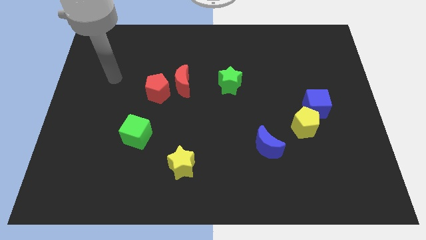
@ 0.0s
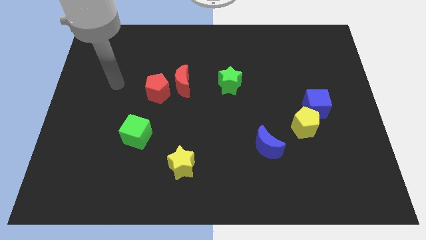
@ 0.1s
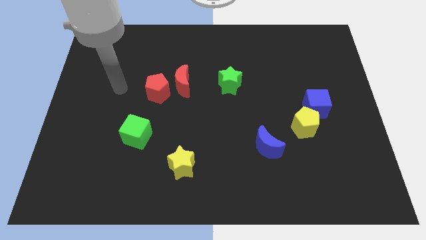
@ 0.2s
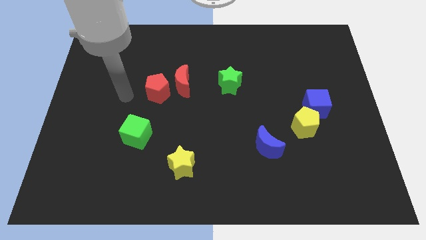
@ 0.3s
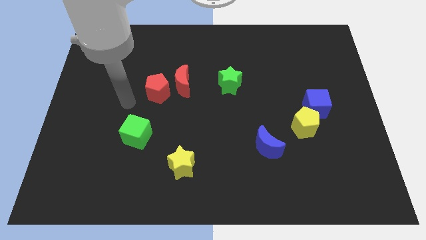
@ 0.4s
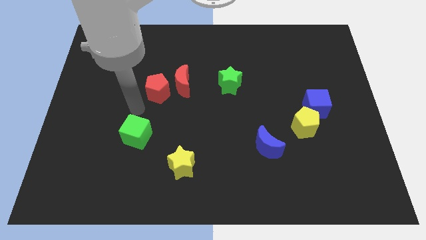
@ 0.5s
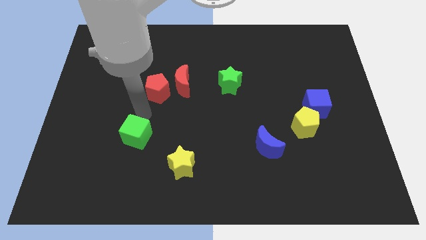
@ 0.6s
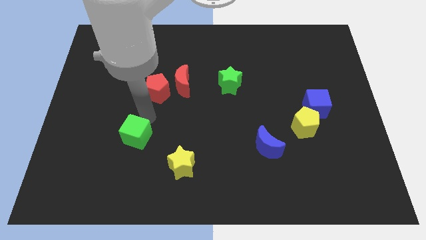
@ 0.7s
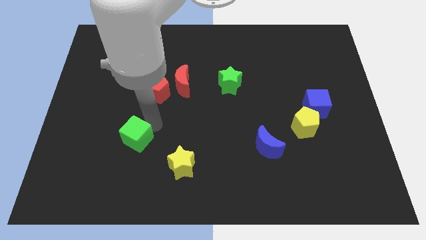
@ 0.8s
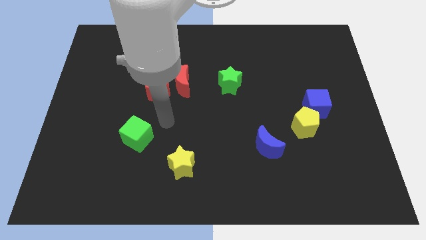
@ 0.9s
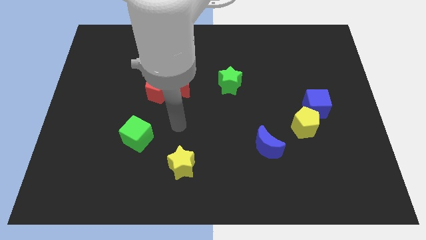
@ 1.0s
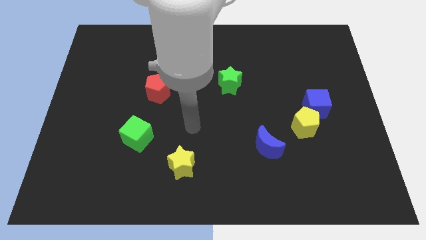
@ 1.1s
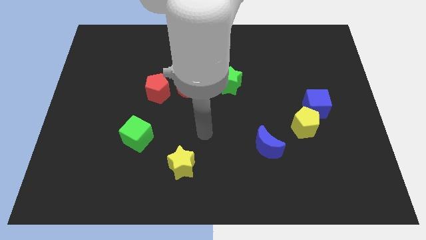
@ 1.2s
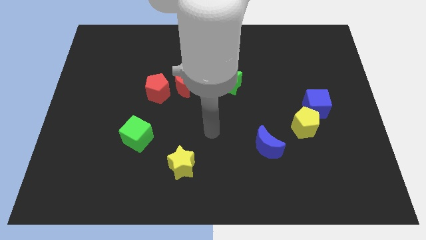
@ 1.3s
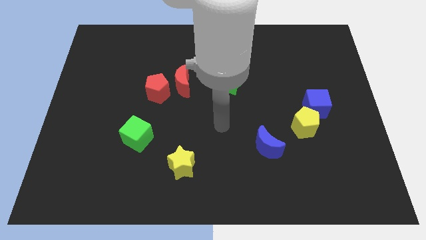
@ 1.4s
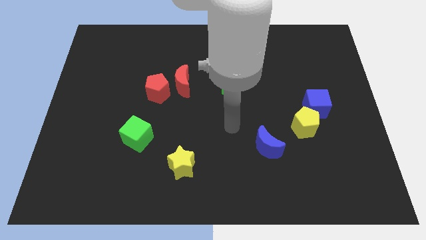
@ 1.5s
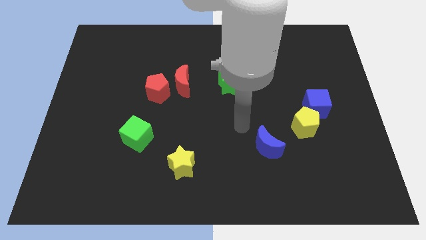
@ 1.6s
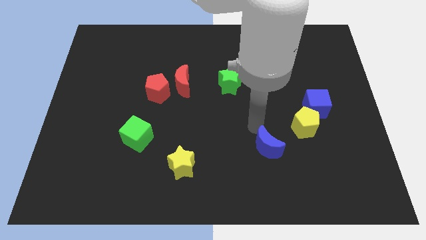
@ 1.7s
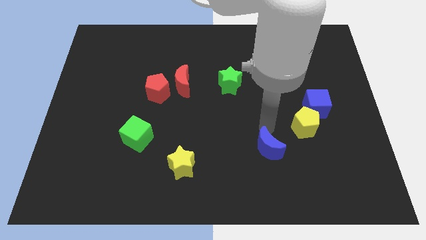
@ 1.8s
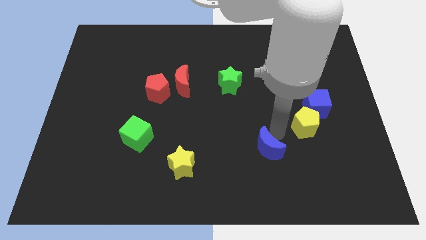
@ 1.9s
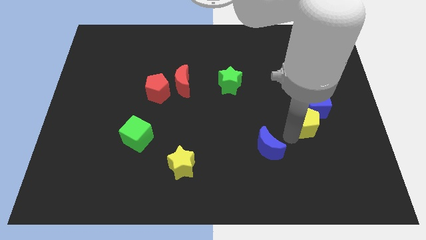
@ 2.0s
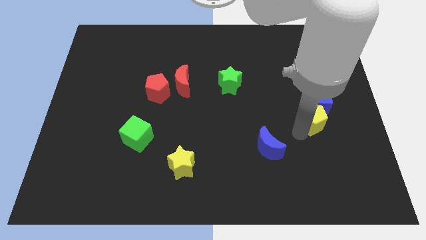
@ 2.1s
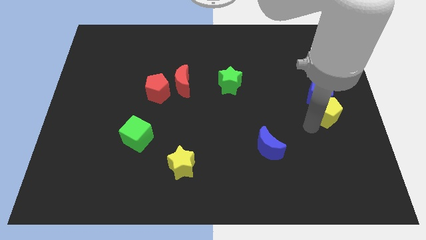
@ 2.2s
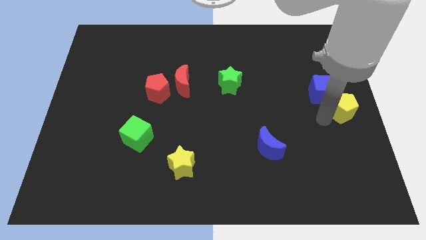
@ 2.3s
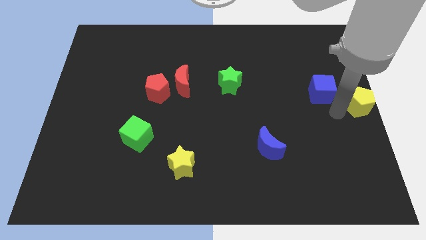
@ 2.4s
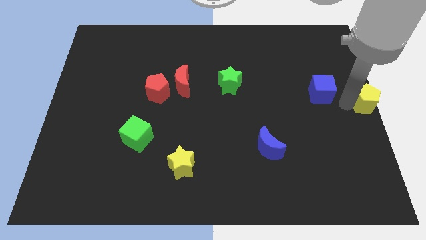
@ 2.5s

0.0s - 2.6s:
pull the blue cube apart from the yellow pentagon

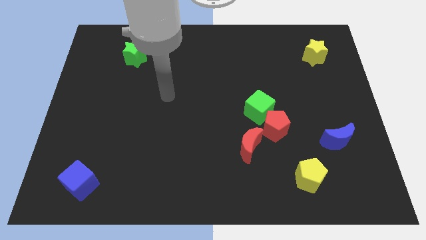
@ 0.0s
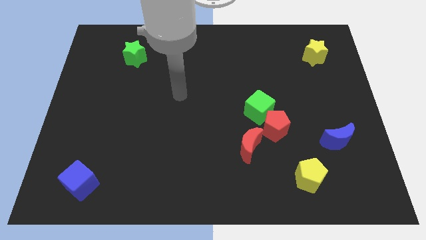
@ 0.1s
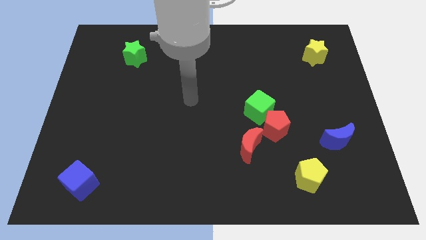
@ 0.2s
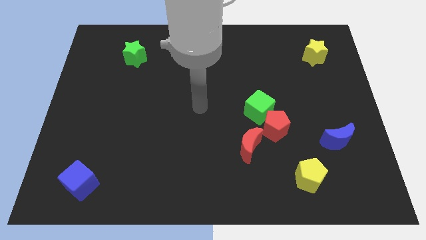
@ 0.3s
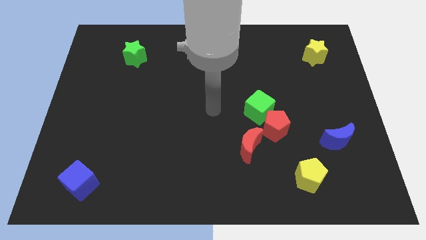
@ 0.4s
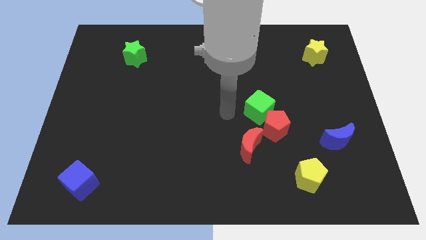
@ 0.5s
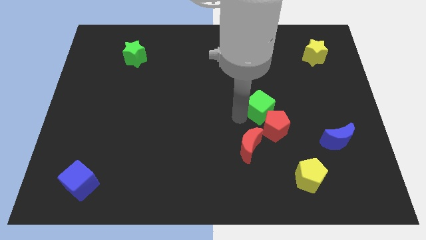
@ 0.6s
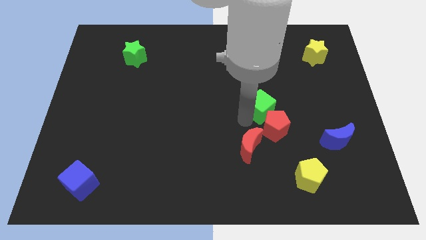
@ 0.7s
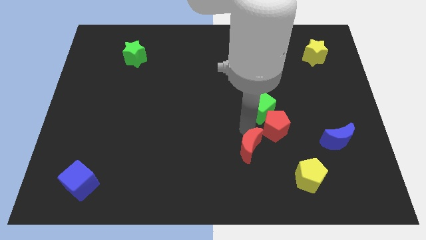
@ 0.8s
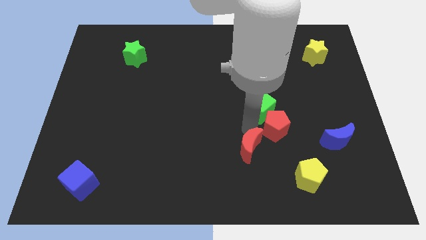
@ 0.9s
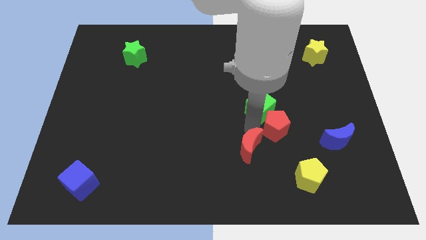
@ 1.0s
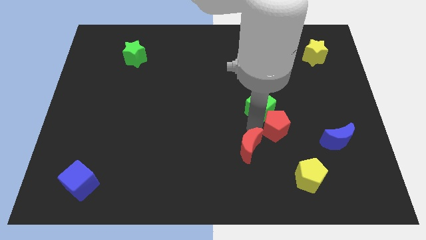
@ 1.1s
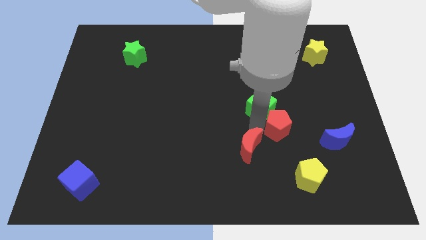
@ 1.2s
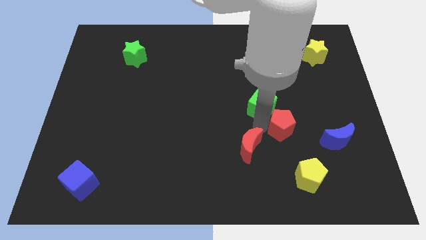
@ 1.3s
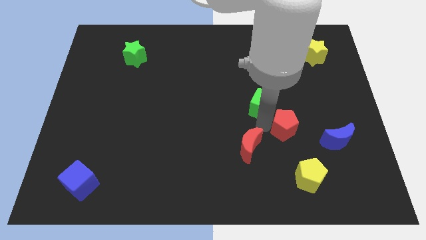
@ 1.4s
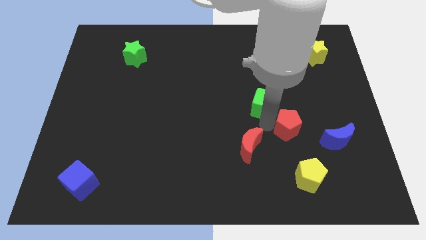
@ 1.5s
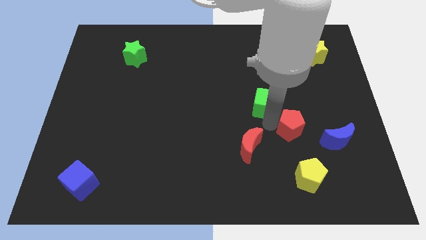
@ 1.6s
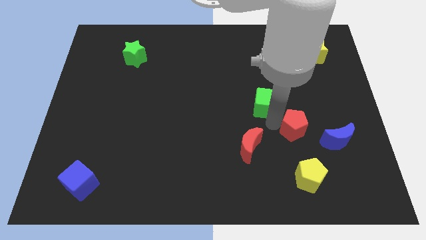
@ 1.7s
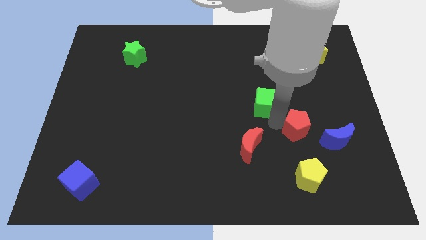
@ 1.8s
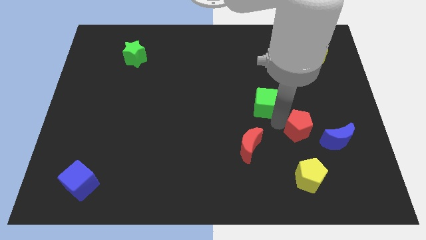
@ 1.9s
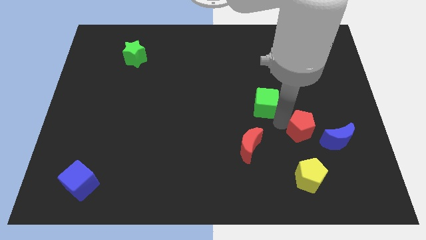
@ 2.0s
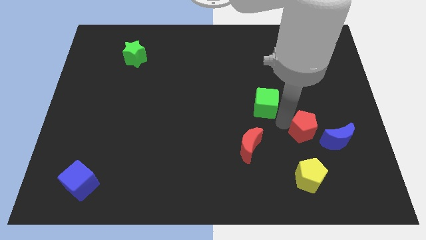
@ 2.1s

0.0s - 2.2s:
move the red pentagon away from the green cube and red moon

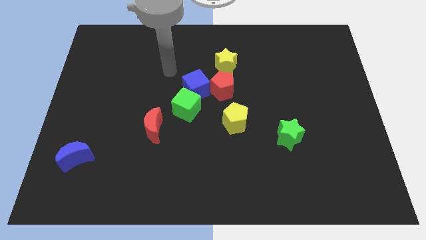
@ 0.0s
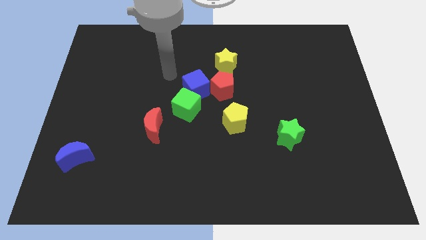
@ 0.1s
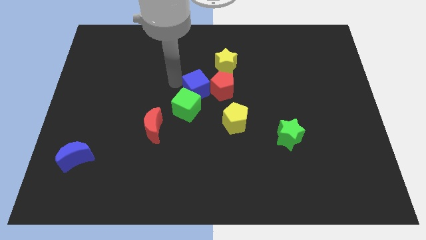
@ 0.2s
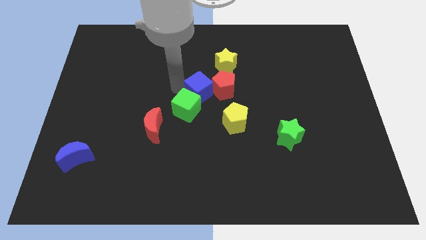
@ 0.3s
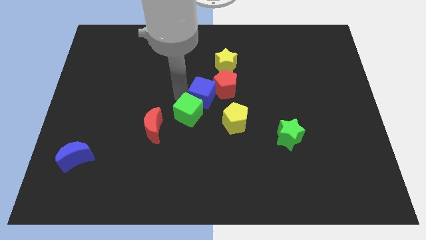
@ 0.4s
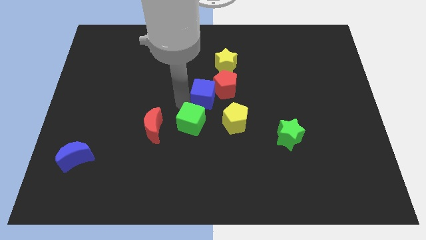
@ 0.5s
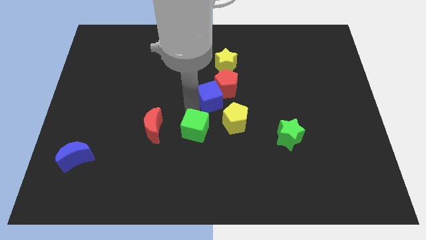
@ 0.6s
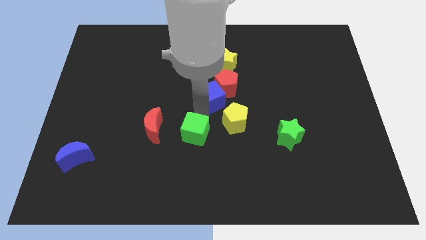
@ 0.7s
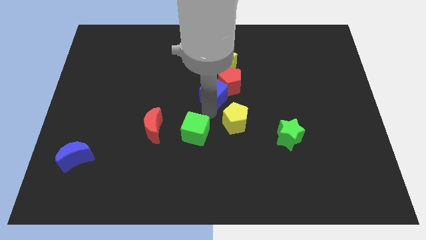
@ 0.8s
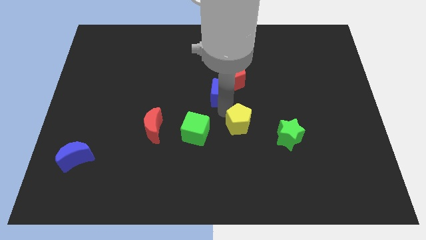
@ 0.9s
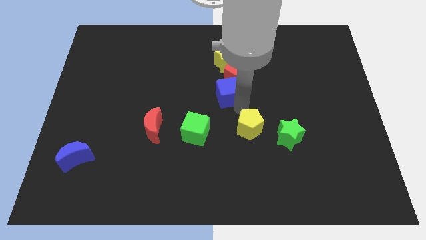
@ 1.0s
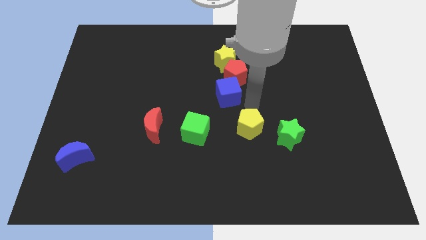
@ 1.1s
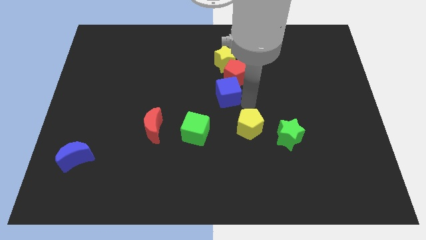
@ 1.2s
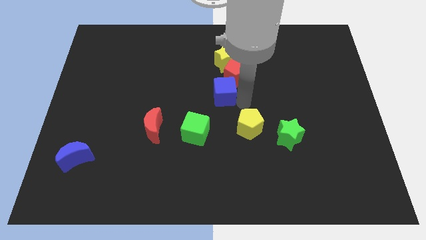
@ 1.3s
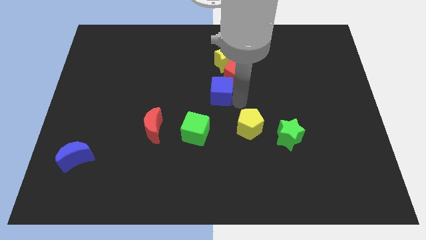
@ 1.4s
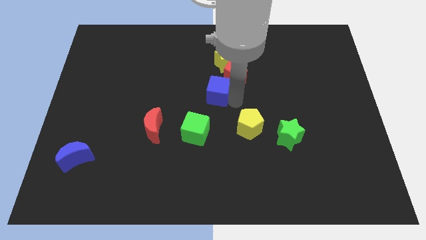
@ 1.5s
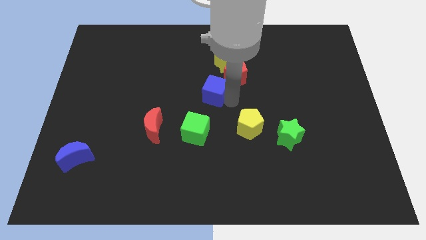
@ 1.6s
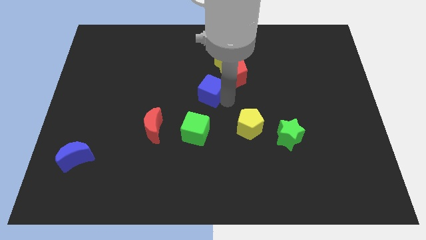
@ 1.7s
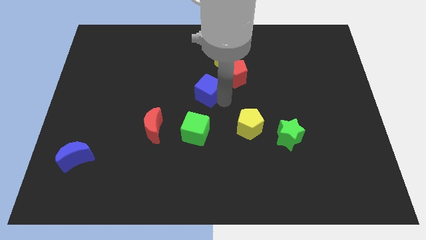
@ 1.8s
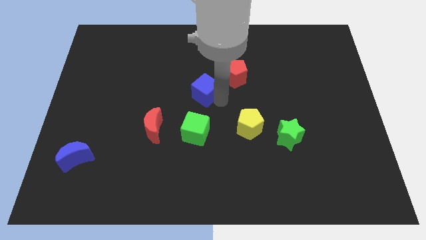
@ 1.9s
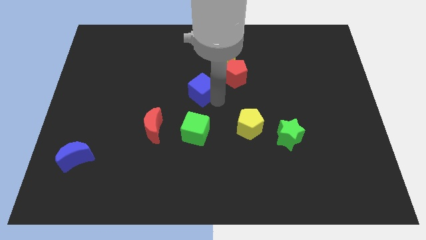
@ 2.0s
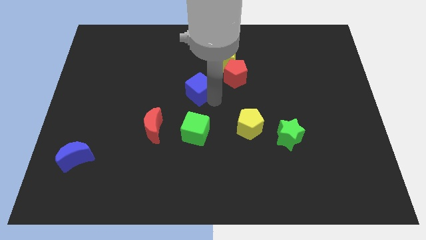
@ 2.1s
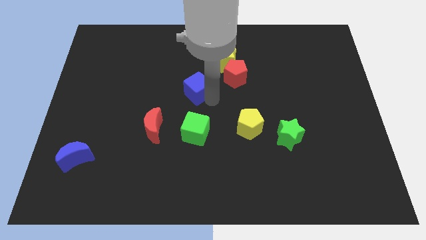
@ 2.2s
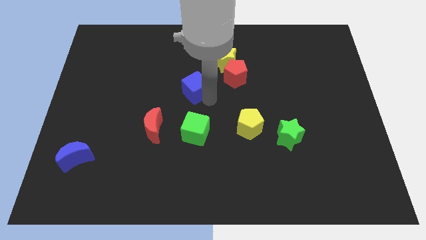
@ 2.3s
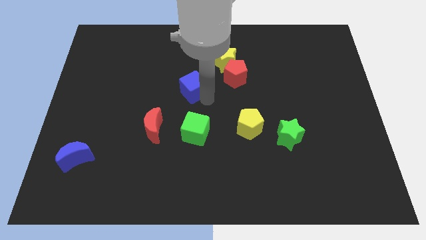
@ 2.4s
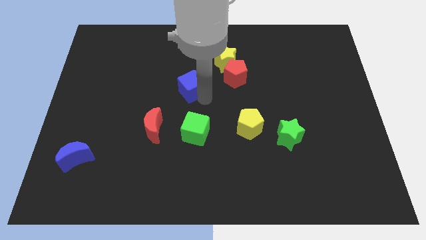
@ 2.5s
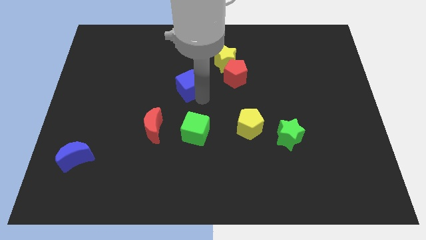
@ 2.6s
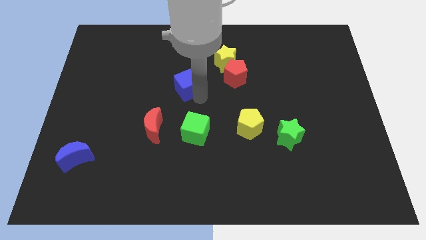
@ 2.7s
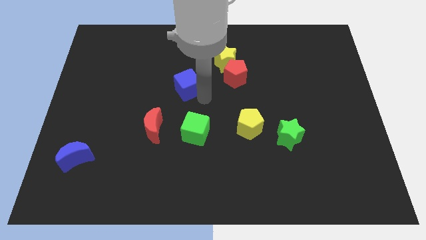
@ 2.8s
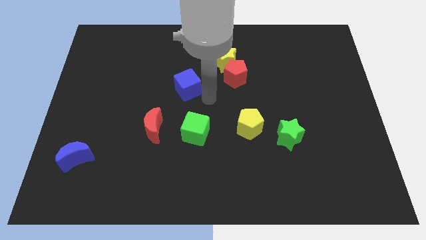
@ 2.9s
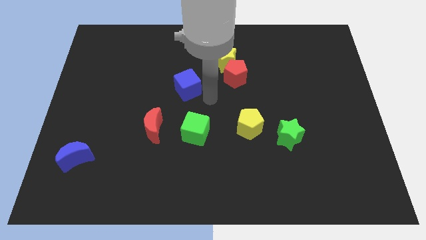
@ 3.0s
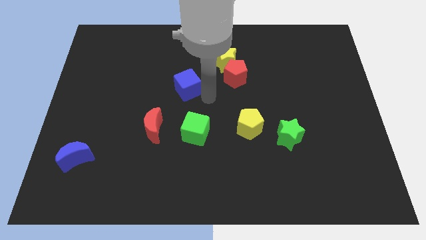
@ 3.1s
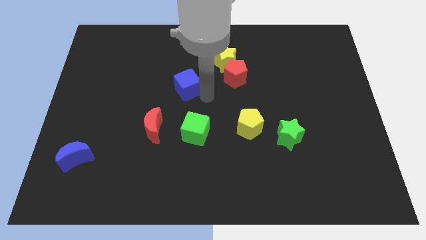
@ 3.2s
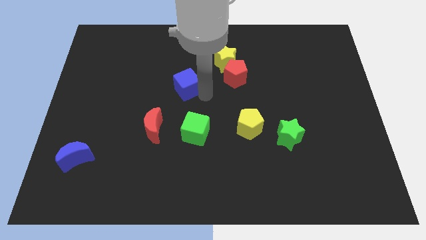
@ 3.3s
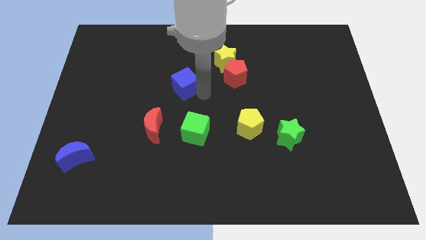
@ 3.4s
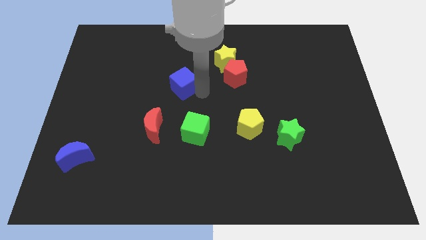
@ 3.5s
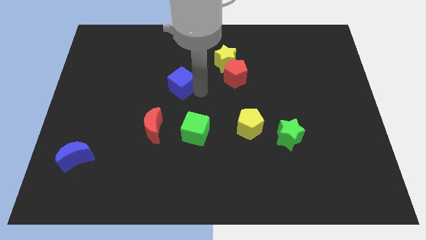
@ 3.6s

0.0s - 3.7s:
pull the blue cube apart from the green cube and red pentagon

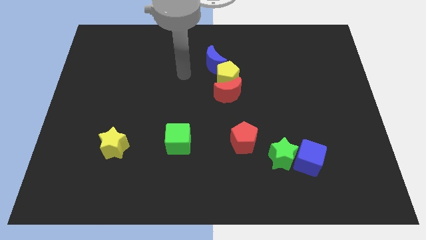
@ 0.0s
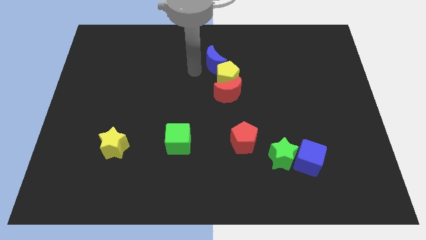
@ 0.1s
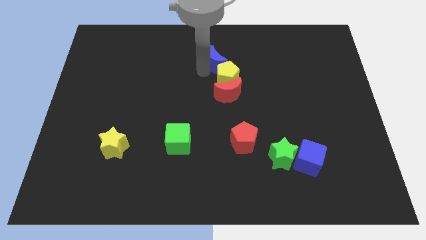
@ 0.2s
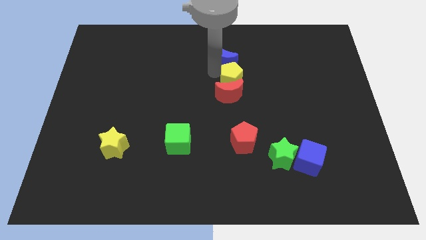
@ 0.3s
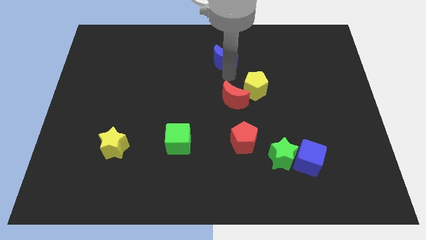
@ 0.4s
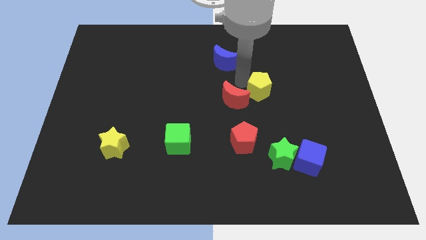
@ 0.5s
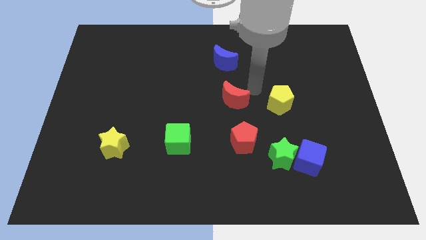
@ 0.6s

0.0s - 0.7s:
pull the red moon apart from the yellow pentagon
